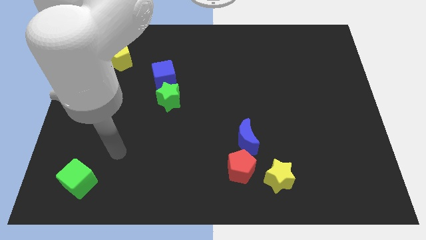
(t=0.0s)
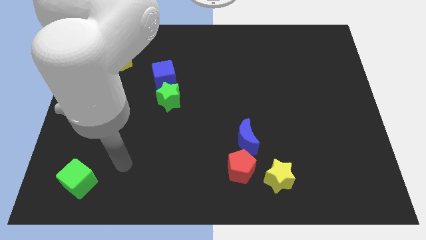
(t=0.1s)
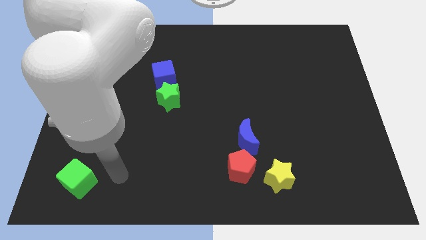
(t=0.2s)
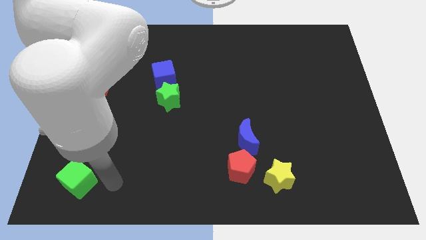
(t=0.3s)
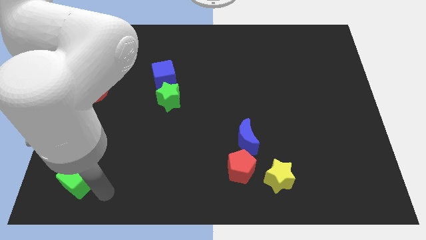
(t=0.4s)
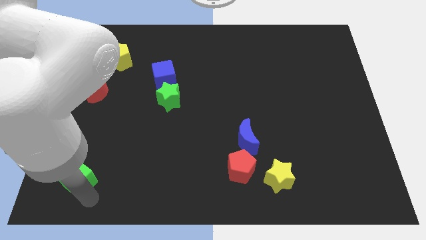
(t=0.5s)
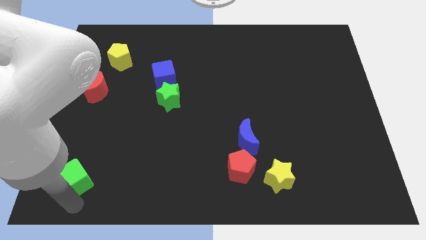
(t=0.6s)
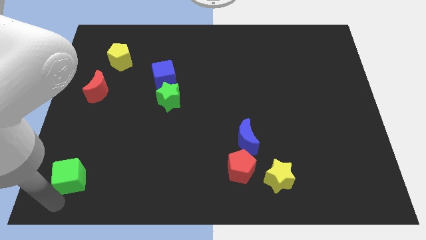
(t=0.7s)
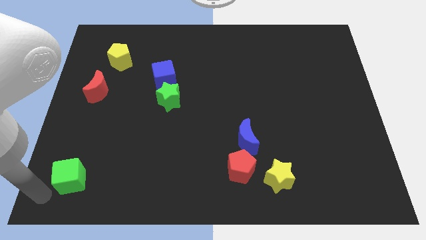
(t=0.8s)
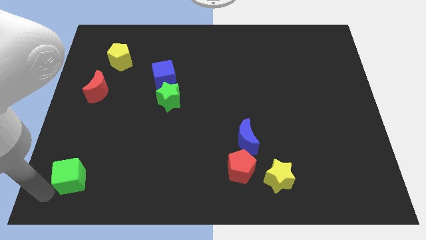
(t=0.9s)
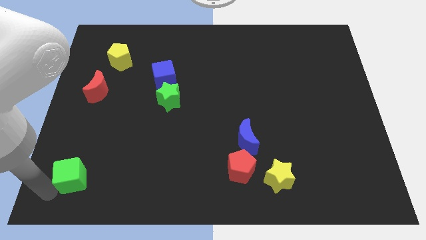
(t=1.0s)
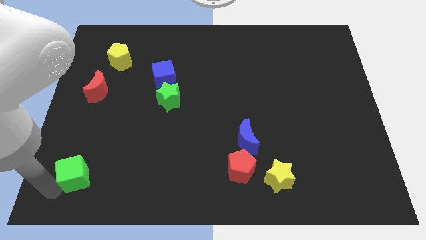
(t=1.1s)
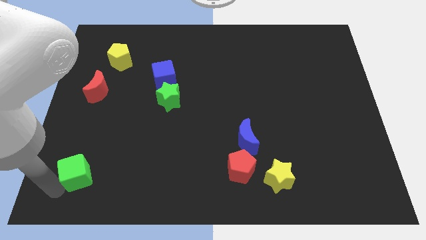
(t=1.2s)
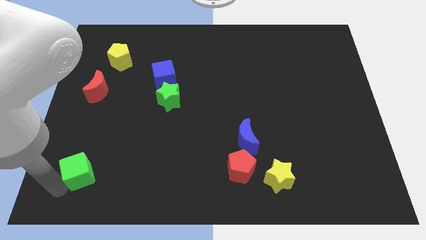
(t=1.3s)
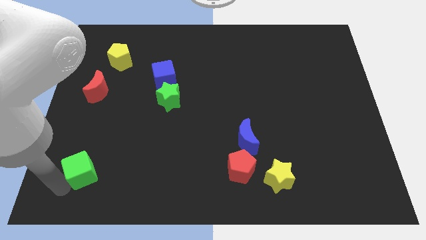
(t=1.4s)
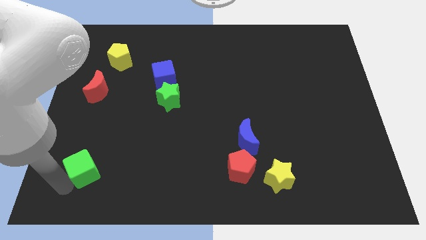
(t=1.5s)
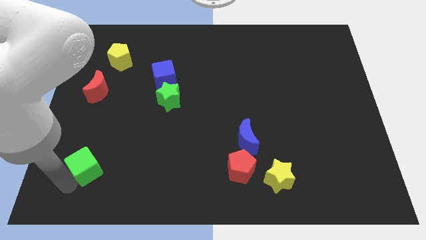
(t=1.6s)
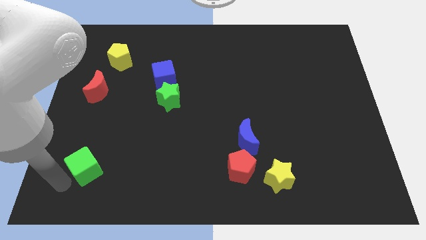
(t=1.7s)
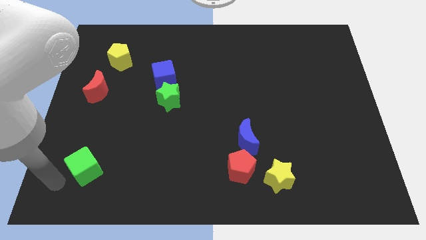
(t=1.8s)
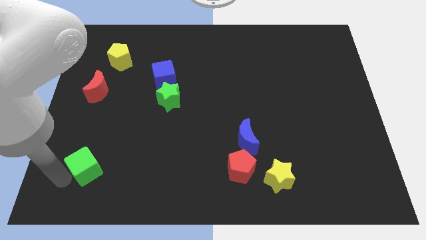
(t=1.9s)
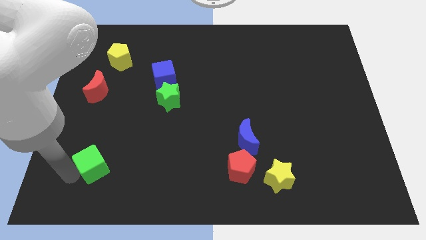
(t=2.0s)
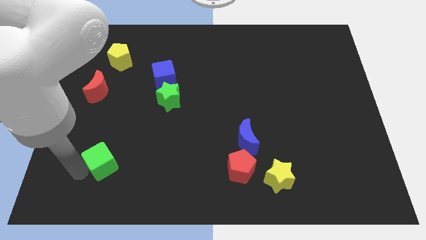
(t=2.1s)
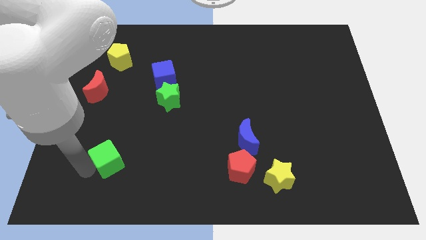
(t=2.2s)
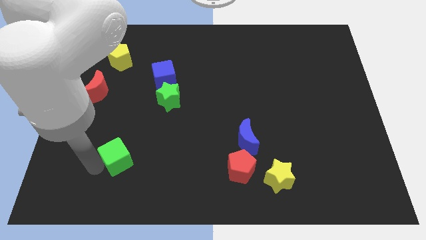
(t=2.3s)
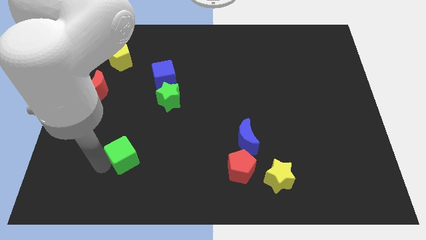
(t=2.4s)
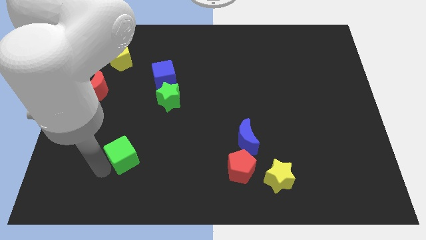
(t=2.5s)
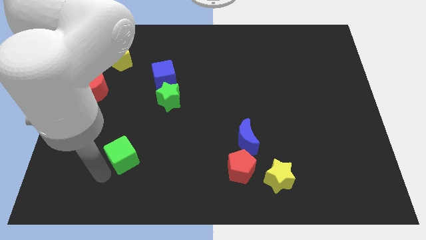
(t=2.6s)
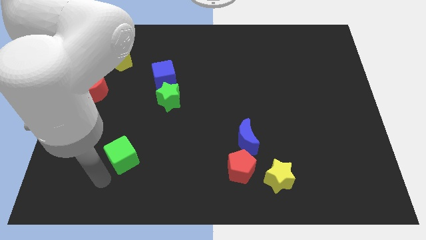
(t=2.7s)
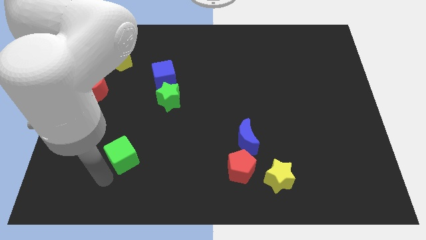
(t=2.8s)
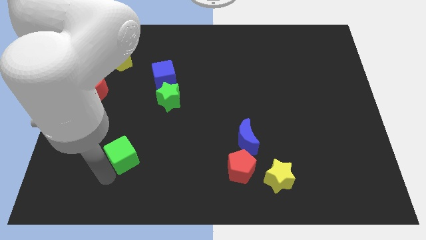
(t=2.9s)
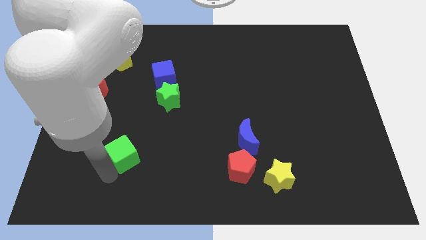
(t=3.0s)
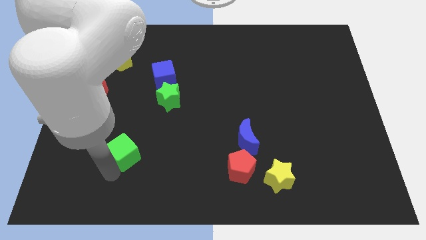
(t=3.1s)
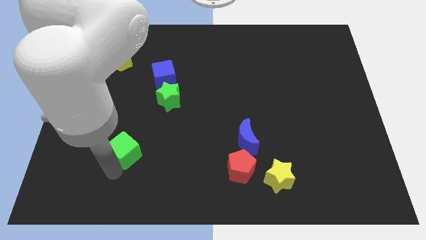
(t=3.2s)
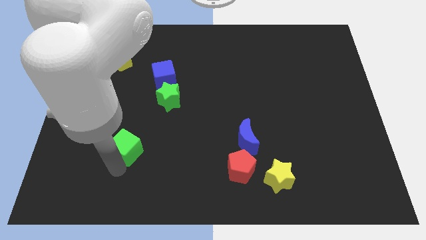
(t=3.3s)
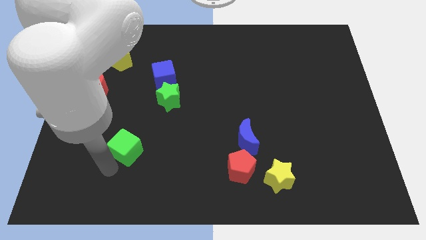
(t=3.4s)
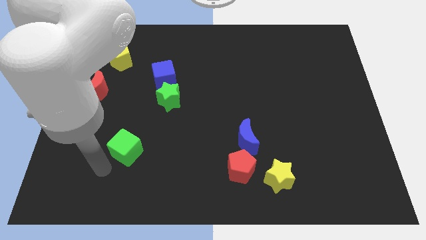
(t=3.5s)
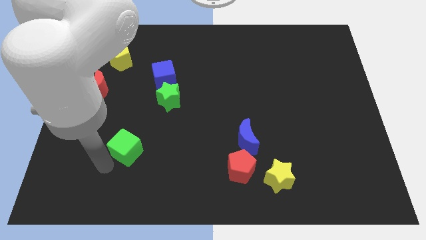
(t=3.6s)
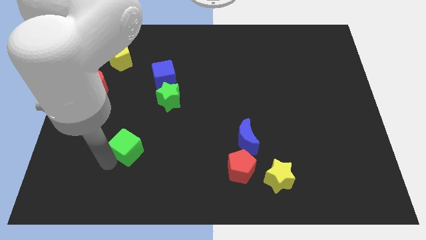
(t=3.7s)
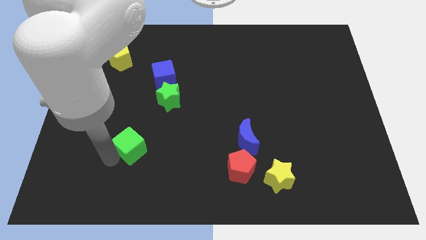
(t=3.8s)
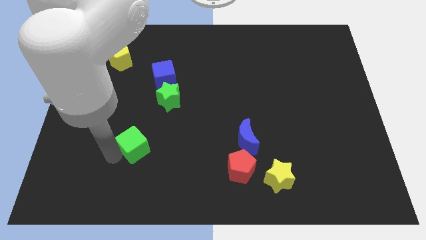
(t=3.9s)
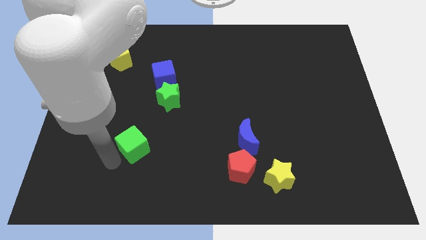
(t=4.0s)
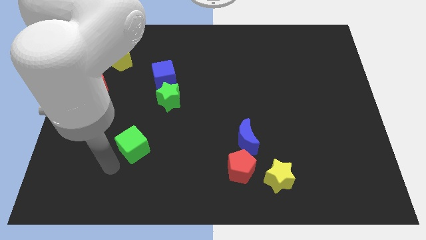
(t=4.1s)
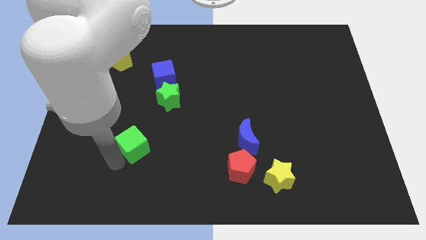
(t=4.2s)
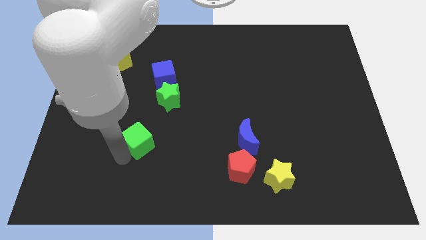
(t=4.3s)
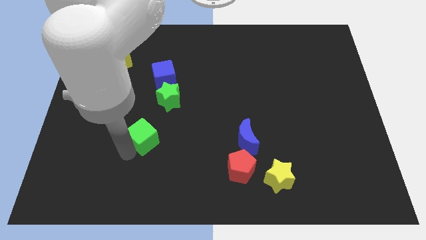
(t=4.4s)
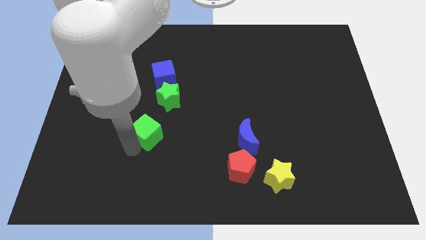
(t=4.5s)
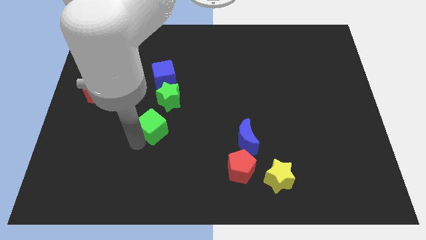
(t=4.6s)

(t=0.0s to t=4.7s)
move the green cube below the blue cube

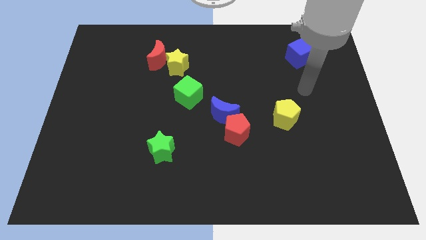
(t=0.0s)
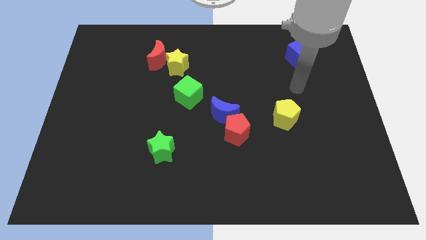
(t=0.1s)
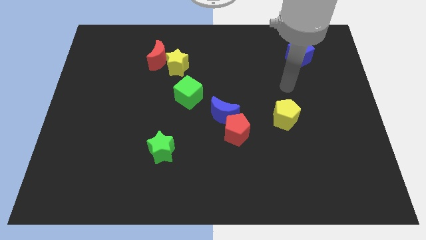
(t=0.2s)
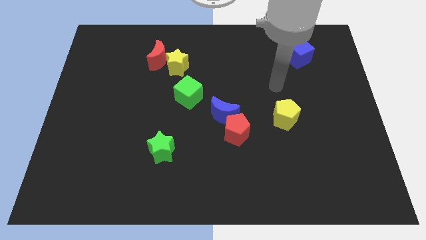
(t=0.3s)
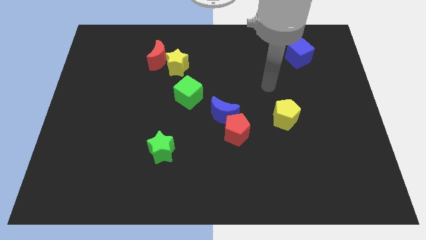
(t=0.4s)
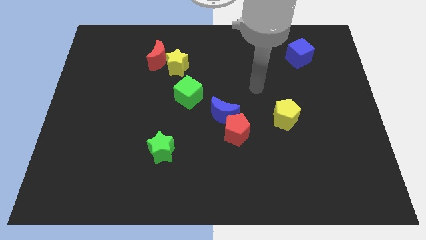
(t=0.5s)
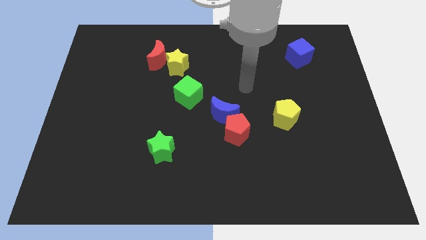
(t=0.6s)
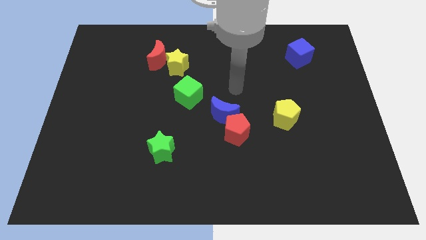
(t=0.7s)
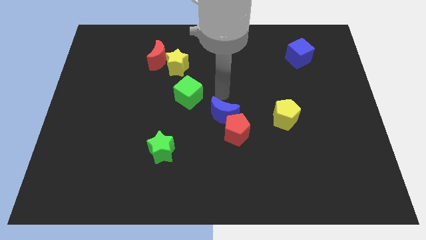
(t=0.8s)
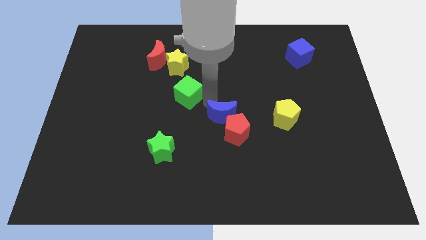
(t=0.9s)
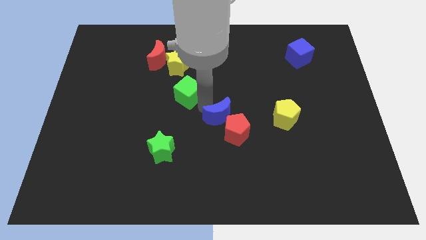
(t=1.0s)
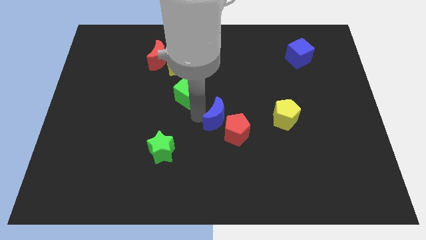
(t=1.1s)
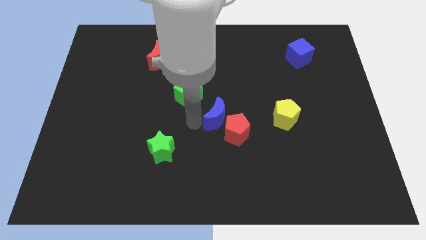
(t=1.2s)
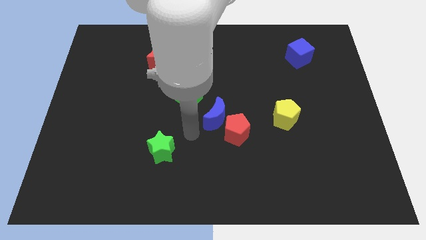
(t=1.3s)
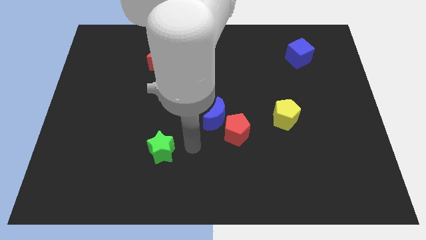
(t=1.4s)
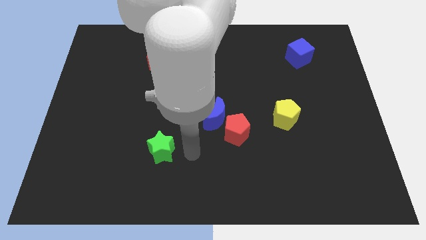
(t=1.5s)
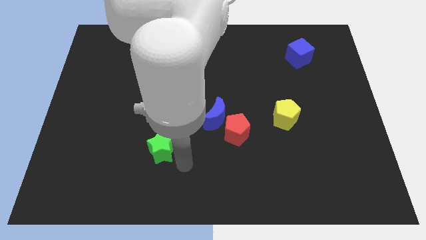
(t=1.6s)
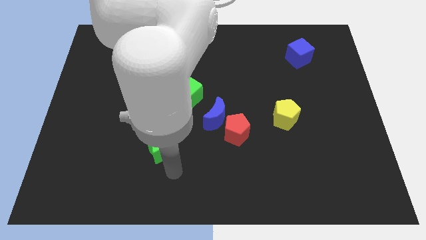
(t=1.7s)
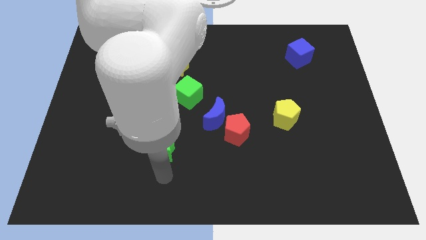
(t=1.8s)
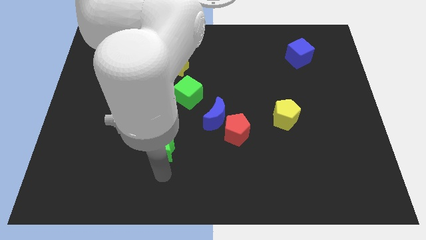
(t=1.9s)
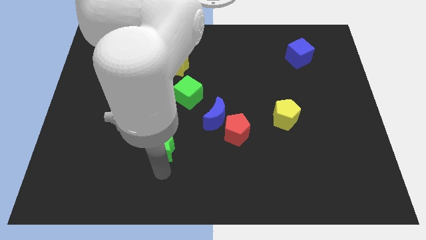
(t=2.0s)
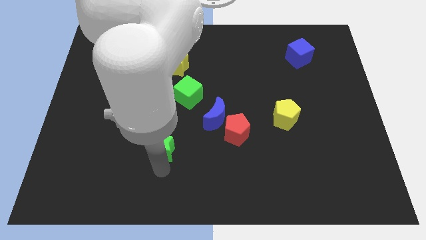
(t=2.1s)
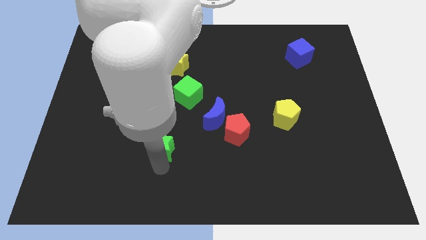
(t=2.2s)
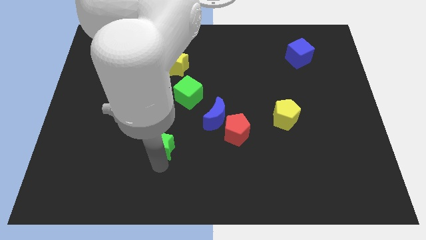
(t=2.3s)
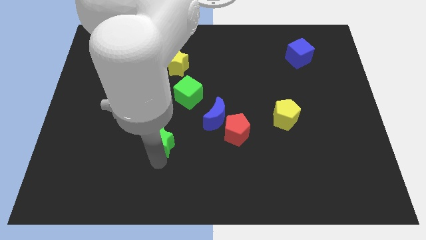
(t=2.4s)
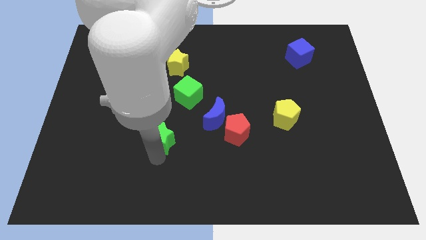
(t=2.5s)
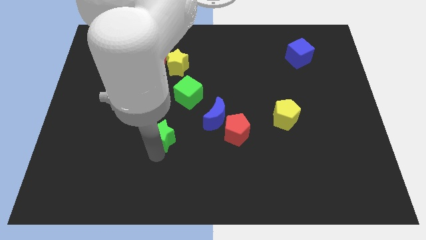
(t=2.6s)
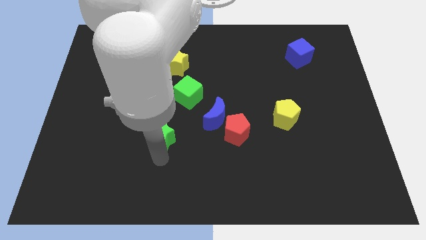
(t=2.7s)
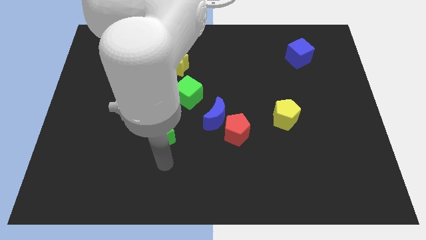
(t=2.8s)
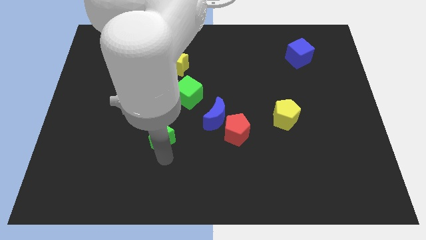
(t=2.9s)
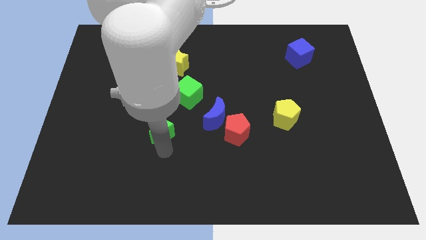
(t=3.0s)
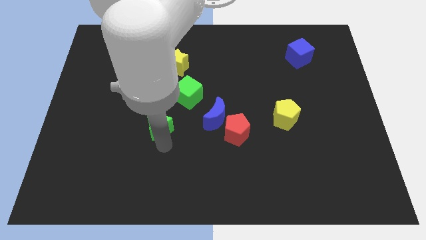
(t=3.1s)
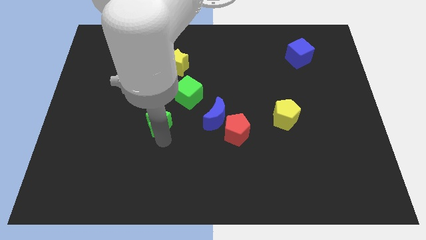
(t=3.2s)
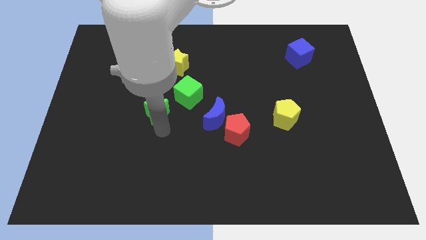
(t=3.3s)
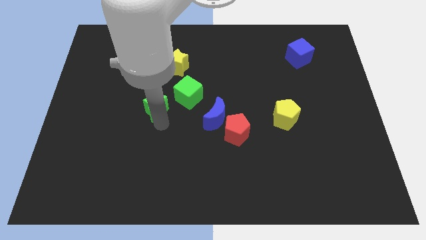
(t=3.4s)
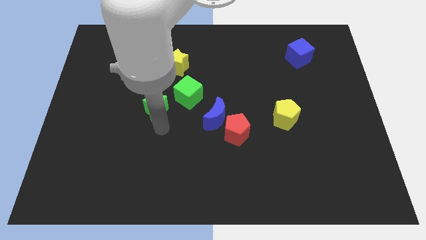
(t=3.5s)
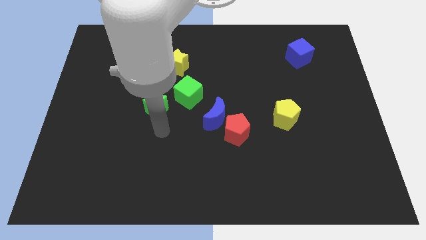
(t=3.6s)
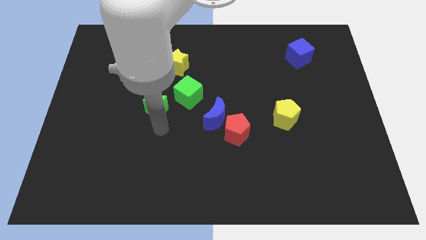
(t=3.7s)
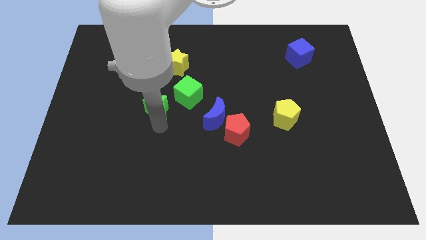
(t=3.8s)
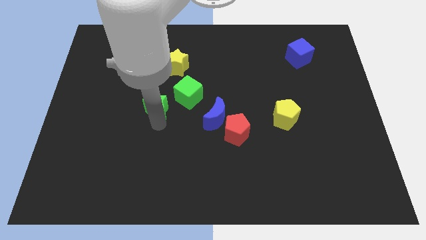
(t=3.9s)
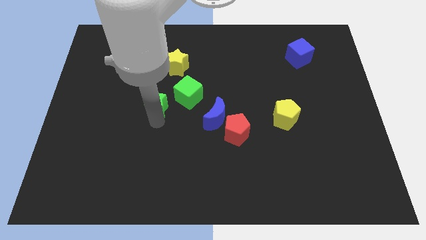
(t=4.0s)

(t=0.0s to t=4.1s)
push the green star to the bottom of the red moon
